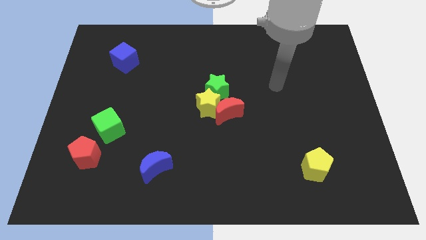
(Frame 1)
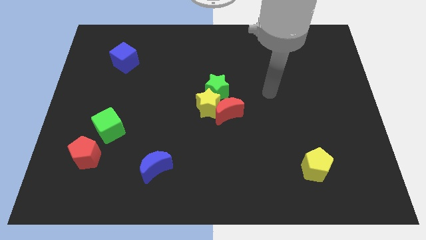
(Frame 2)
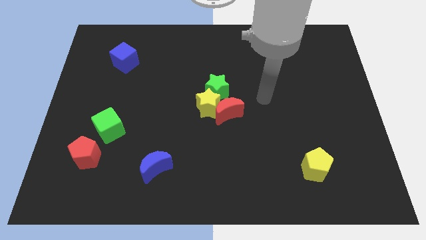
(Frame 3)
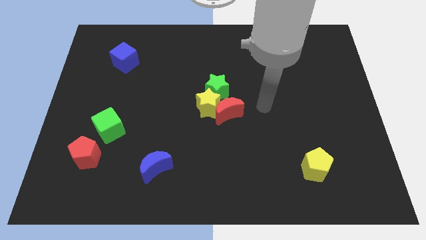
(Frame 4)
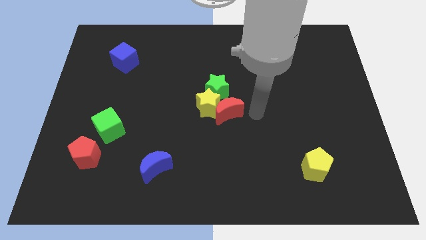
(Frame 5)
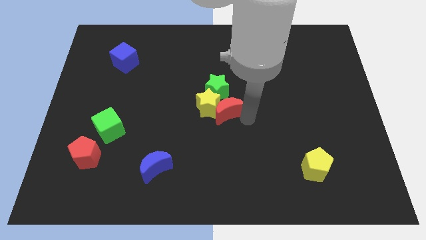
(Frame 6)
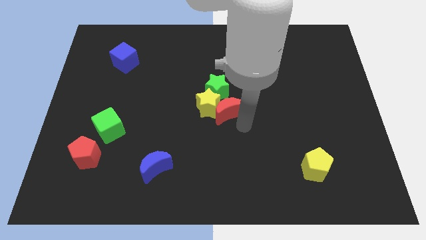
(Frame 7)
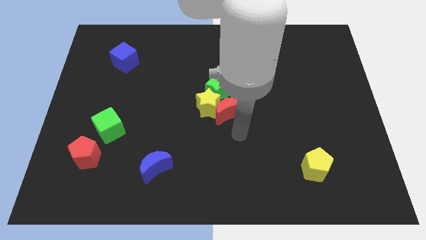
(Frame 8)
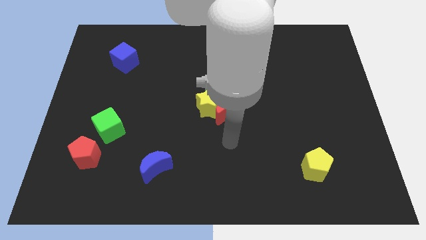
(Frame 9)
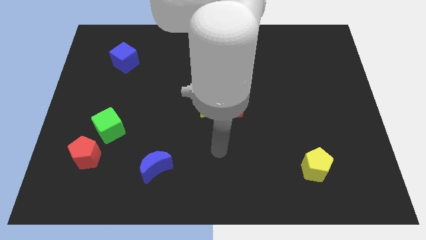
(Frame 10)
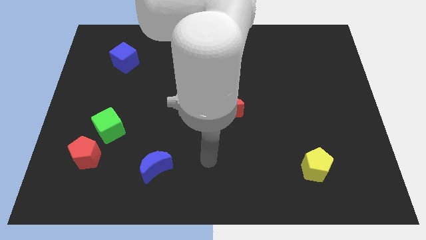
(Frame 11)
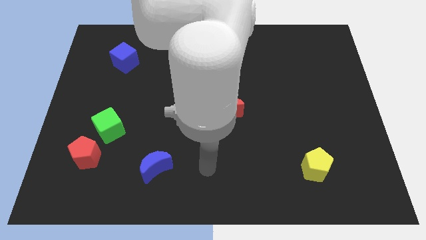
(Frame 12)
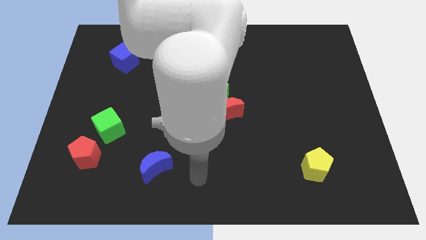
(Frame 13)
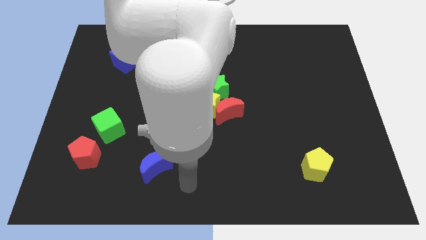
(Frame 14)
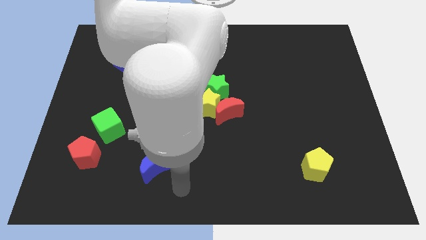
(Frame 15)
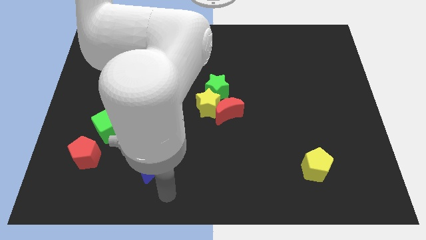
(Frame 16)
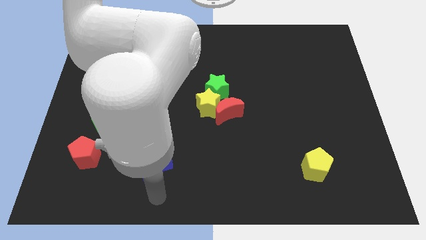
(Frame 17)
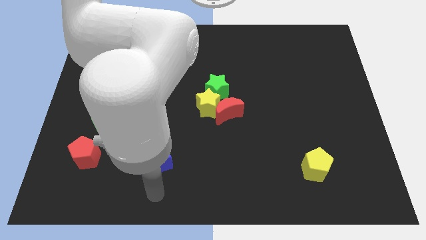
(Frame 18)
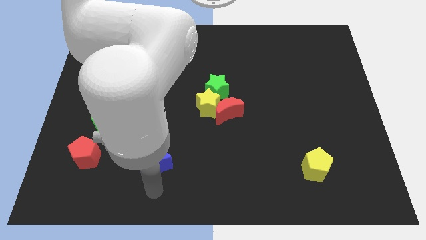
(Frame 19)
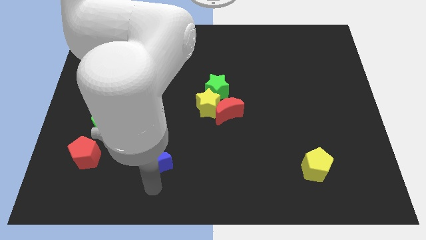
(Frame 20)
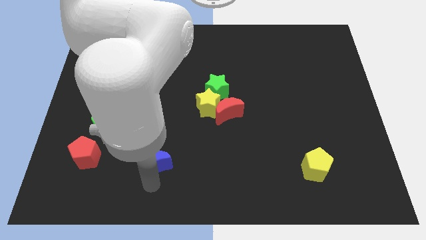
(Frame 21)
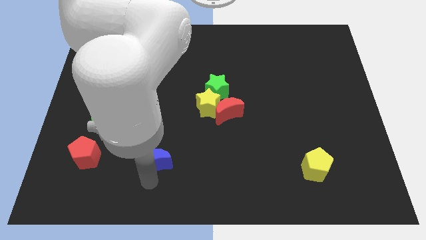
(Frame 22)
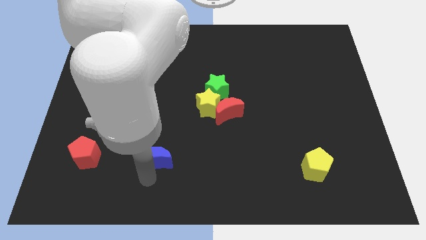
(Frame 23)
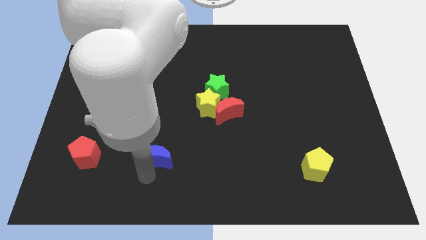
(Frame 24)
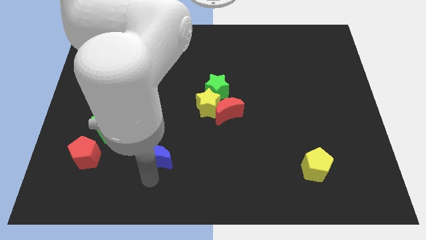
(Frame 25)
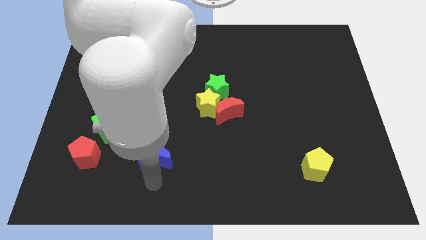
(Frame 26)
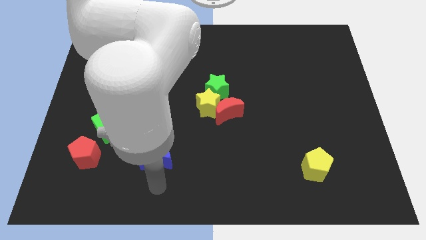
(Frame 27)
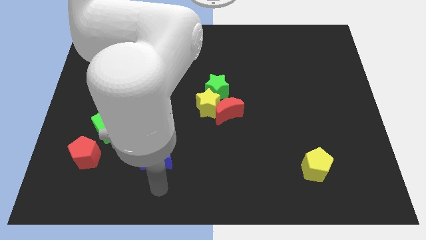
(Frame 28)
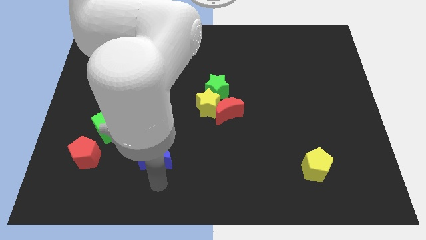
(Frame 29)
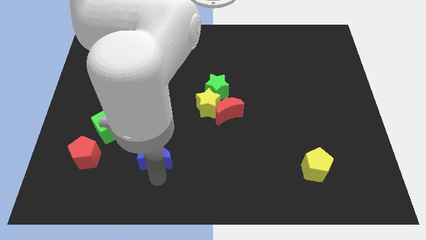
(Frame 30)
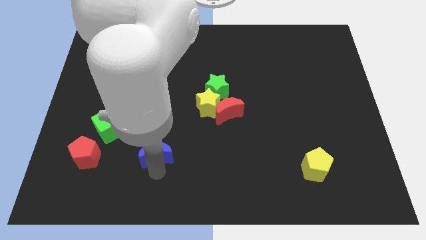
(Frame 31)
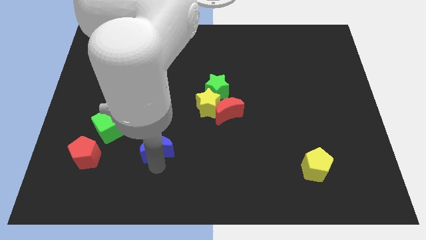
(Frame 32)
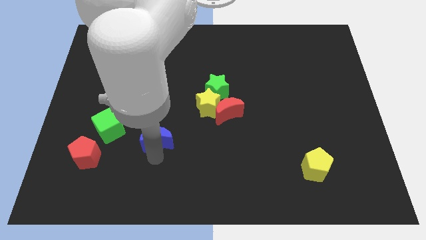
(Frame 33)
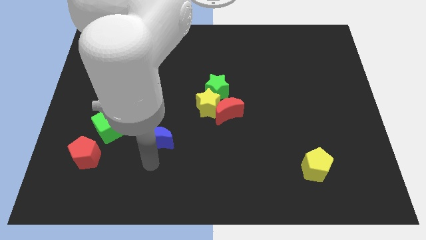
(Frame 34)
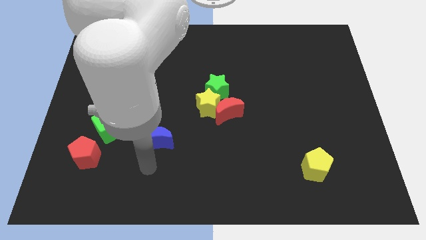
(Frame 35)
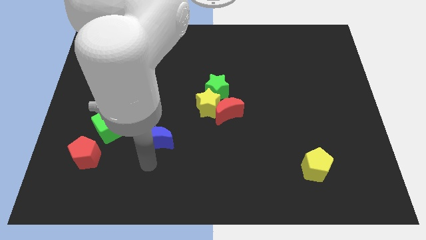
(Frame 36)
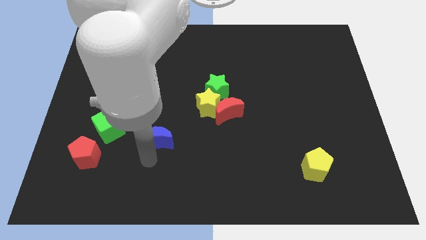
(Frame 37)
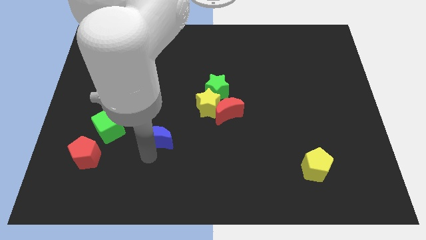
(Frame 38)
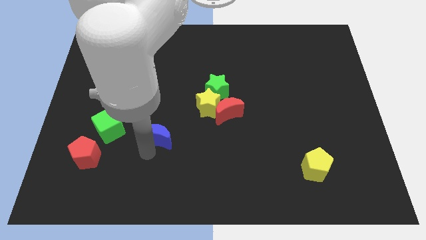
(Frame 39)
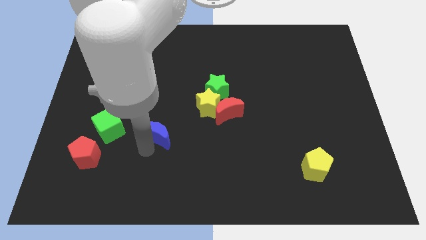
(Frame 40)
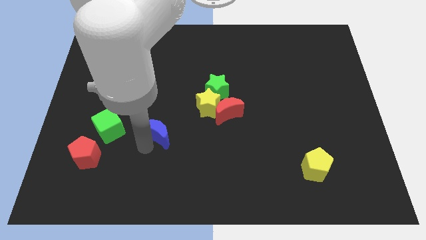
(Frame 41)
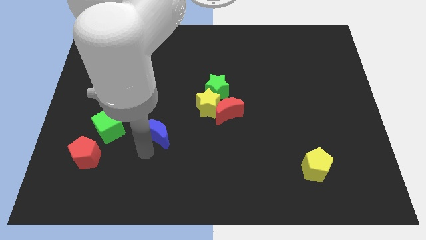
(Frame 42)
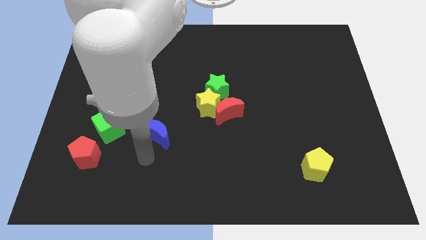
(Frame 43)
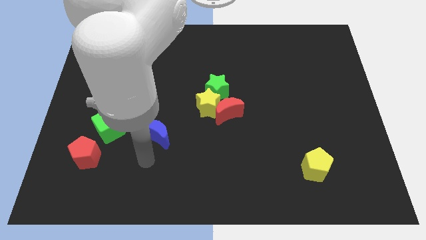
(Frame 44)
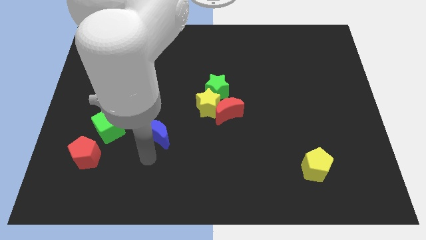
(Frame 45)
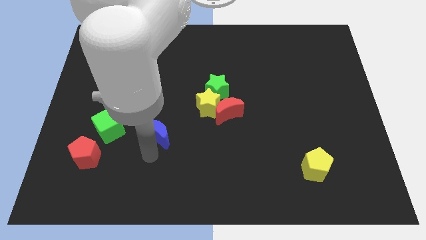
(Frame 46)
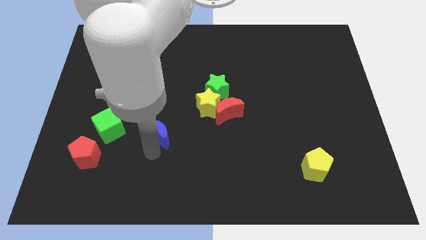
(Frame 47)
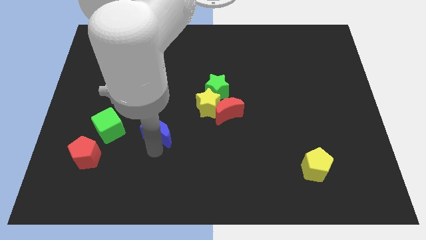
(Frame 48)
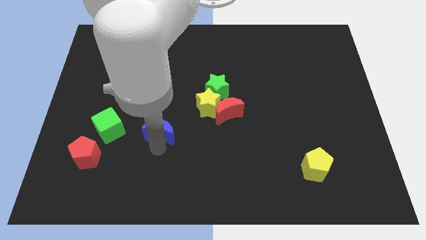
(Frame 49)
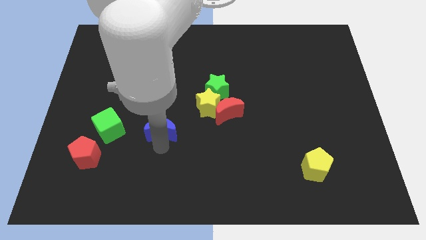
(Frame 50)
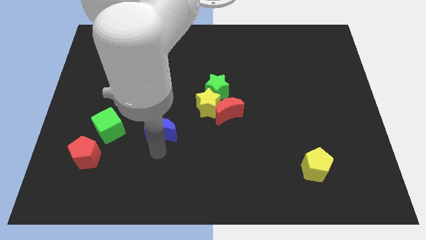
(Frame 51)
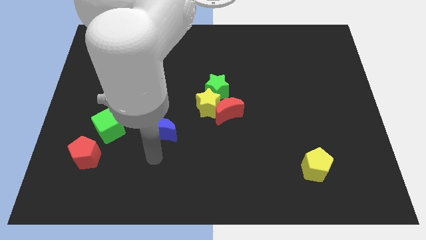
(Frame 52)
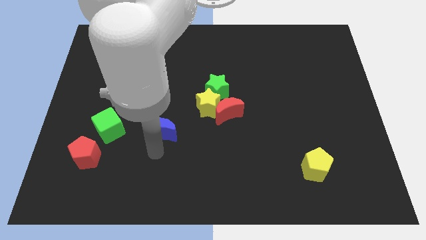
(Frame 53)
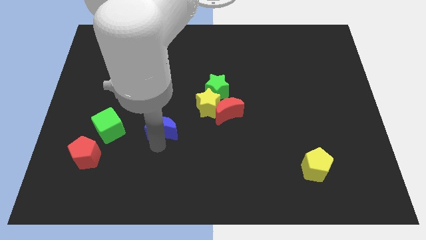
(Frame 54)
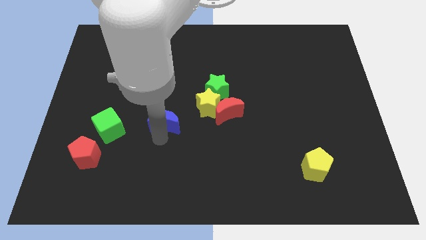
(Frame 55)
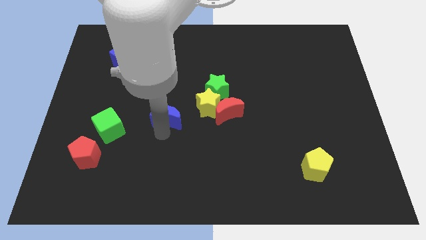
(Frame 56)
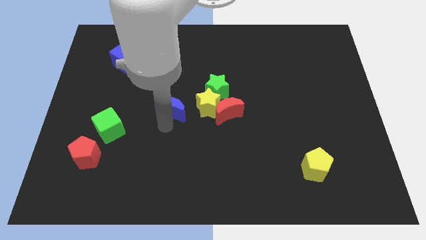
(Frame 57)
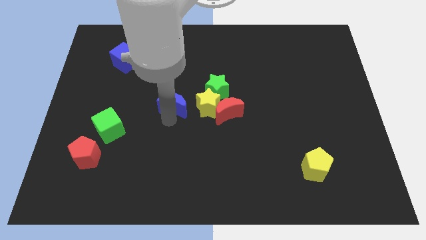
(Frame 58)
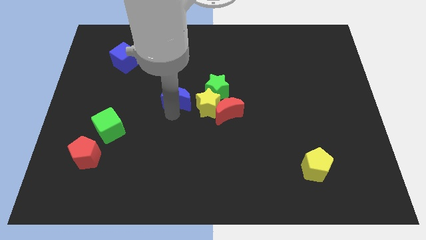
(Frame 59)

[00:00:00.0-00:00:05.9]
move the blue moon left of the green star

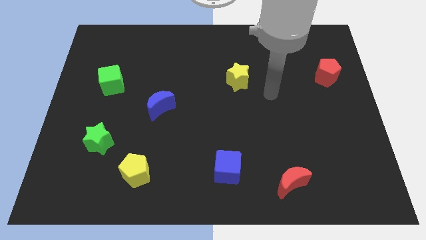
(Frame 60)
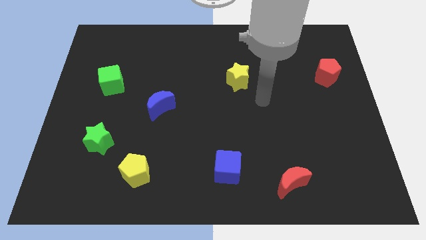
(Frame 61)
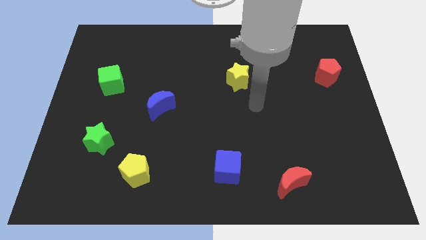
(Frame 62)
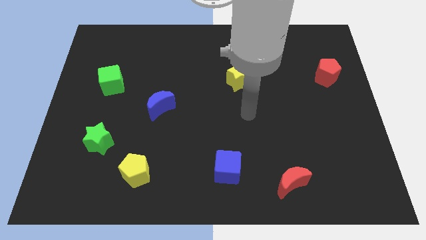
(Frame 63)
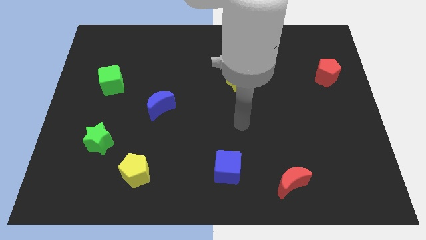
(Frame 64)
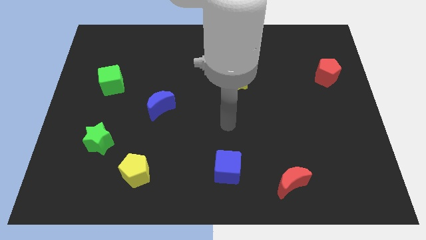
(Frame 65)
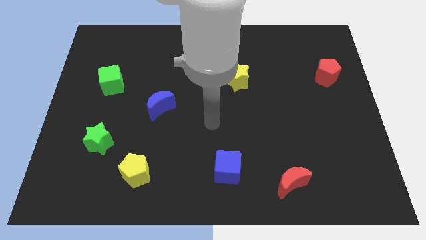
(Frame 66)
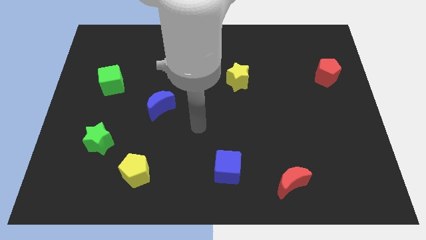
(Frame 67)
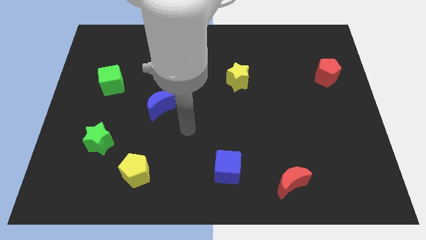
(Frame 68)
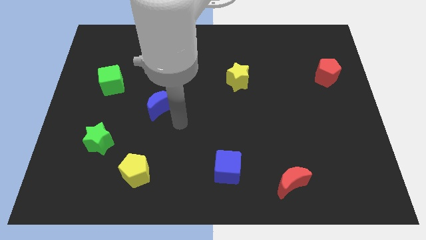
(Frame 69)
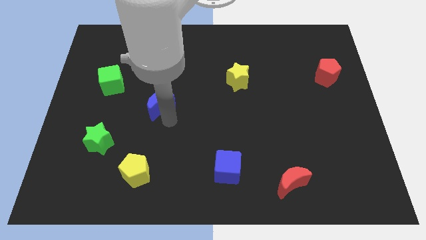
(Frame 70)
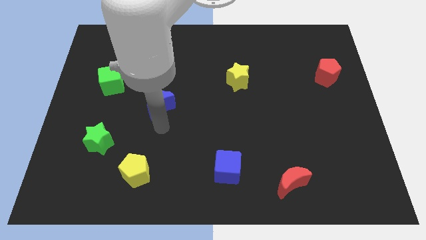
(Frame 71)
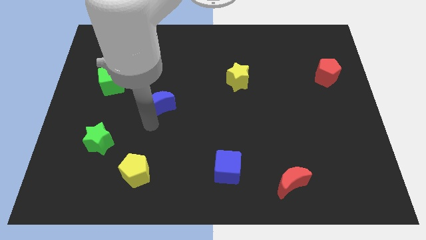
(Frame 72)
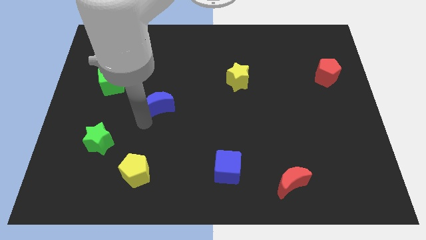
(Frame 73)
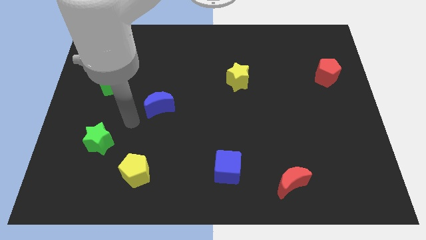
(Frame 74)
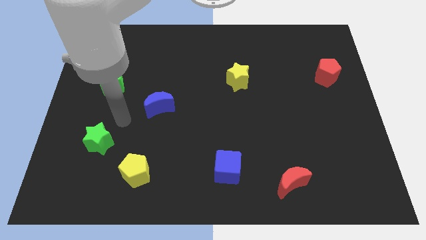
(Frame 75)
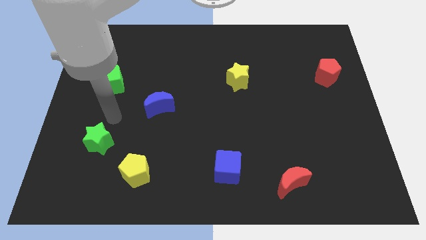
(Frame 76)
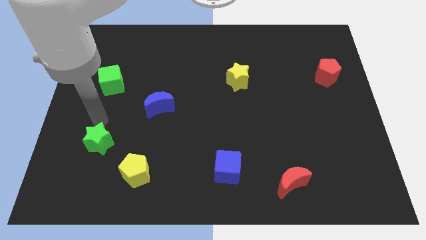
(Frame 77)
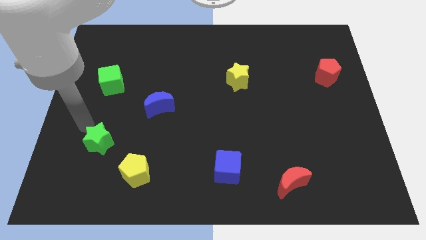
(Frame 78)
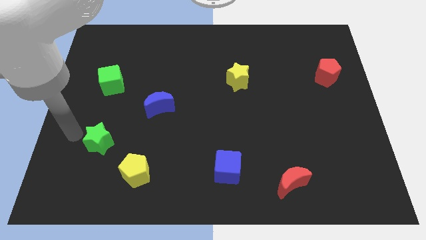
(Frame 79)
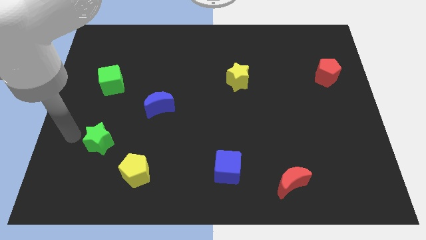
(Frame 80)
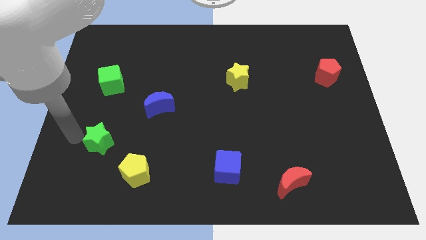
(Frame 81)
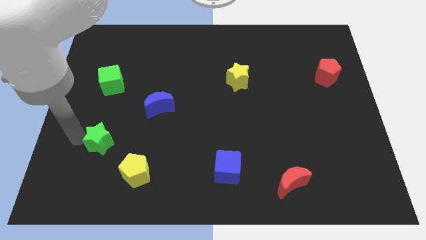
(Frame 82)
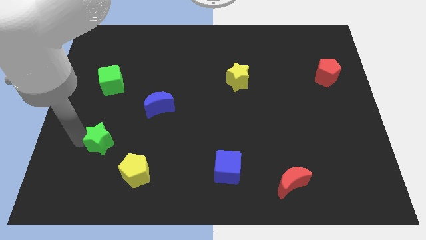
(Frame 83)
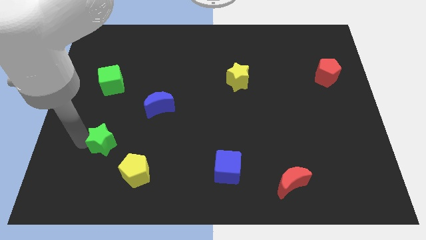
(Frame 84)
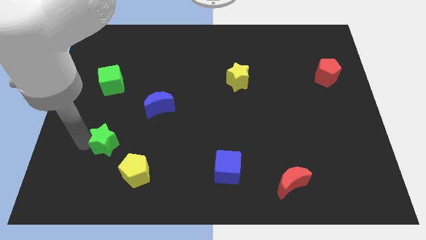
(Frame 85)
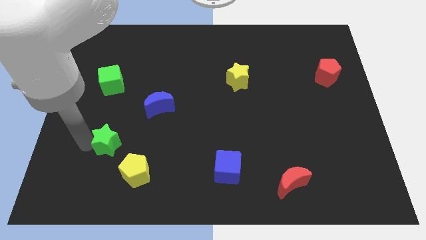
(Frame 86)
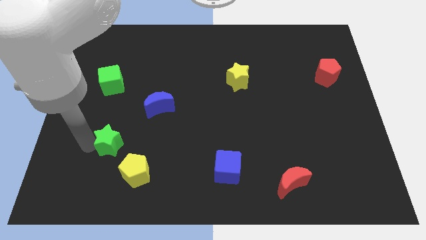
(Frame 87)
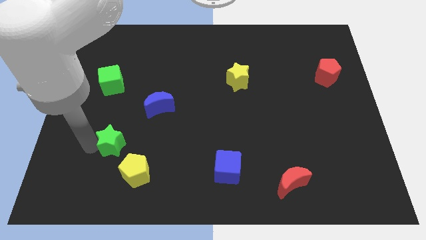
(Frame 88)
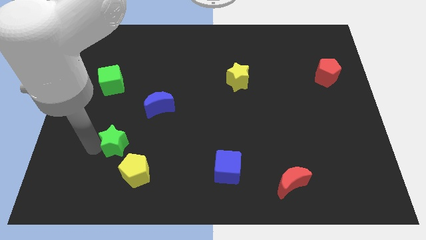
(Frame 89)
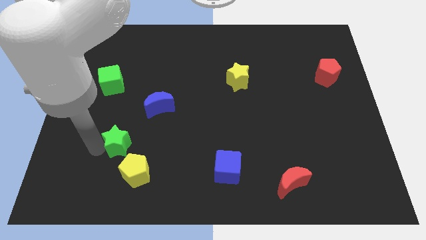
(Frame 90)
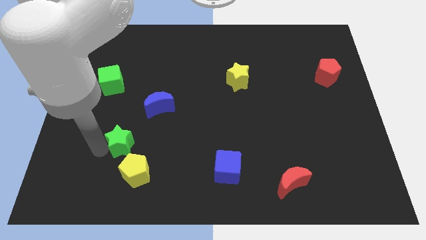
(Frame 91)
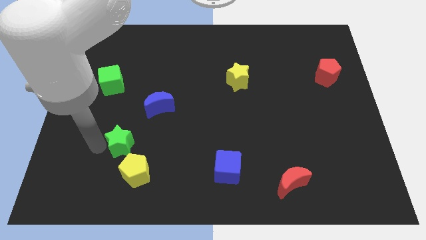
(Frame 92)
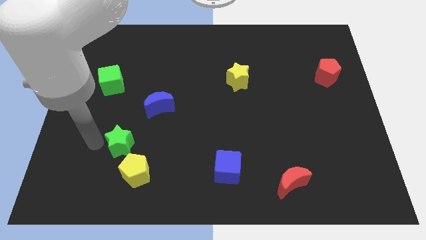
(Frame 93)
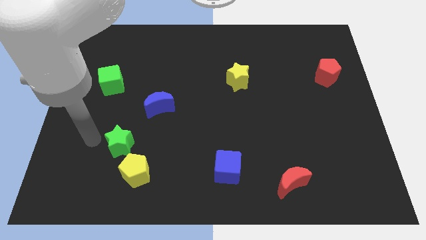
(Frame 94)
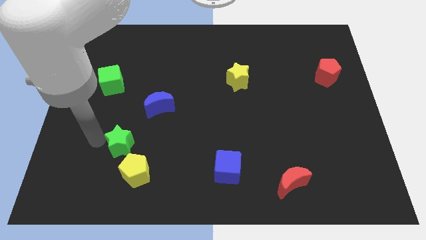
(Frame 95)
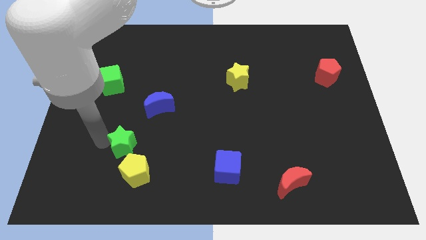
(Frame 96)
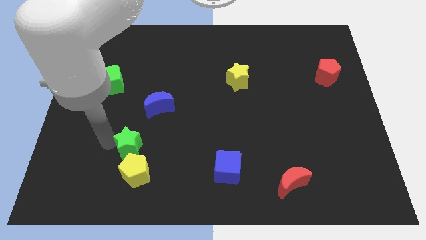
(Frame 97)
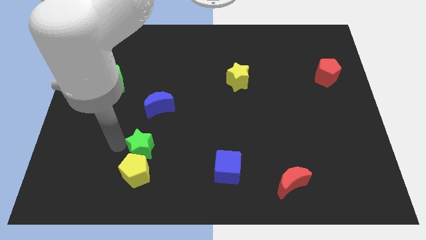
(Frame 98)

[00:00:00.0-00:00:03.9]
move the green star to the top right of the yellow pentagon
